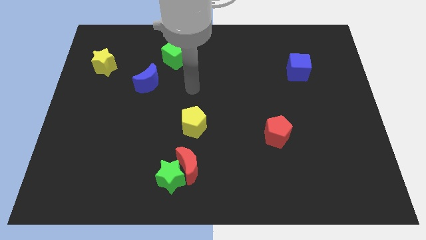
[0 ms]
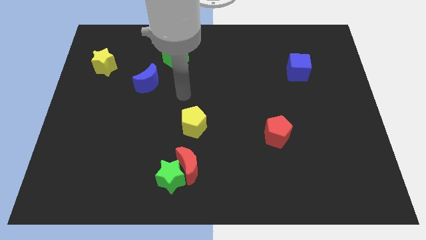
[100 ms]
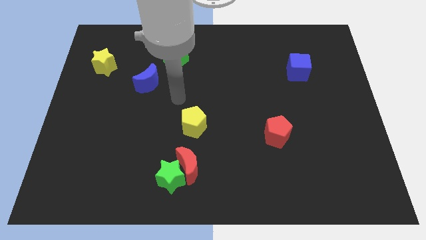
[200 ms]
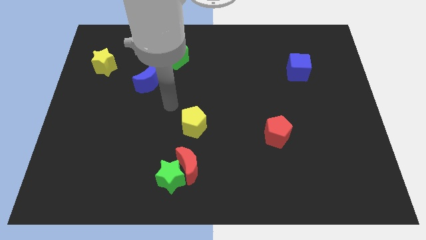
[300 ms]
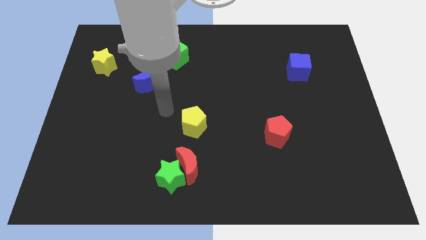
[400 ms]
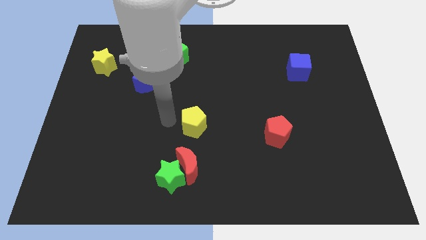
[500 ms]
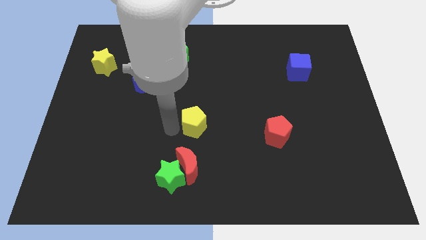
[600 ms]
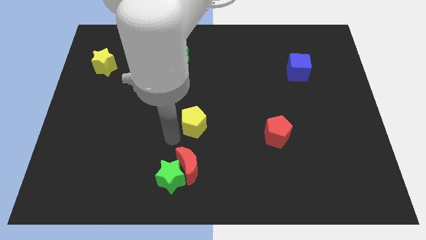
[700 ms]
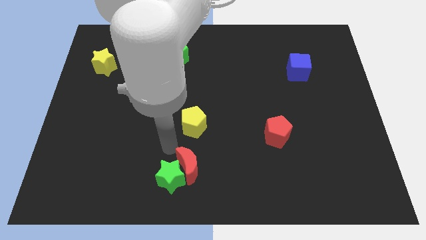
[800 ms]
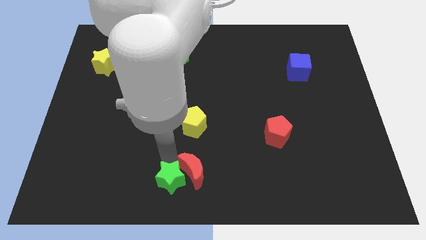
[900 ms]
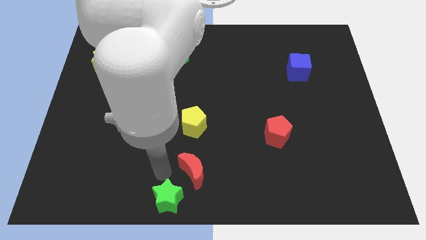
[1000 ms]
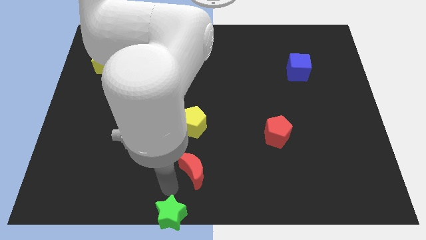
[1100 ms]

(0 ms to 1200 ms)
pull the red moon apart from the green star

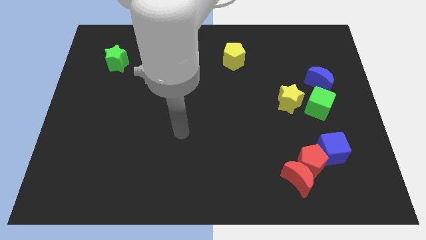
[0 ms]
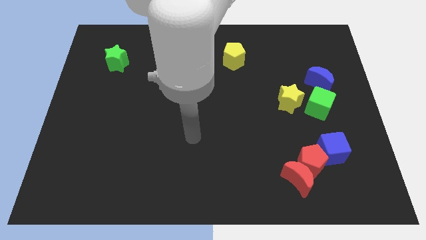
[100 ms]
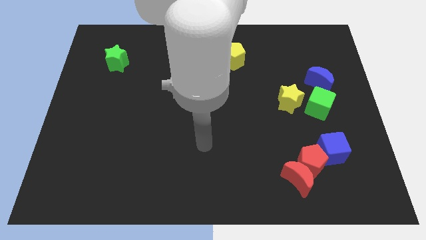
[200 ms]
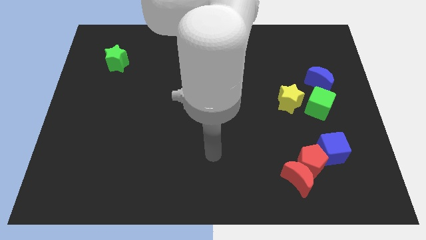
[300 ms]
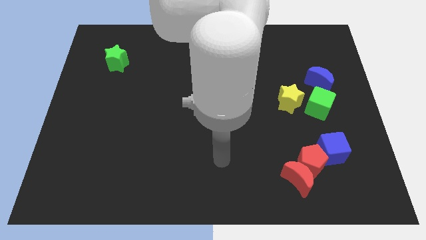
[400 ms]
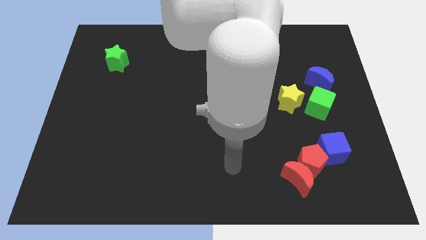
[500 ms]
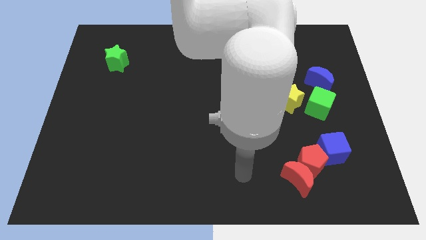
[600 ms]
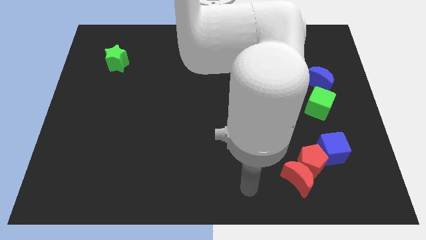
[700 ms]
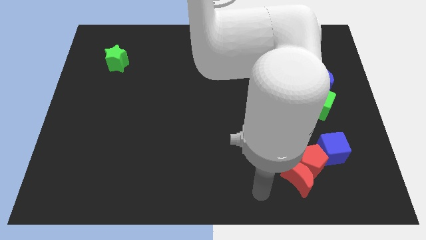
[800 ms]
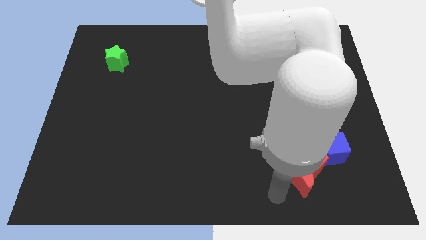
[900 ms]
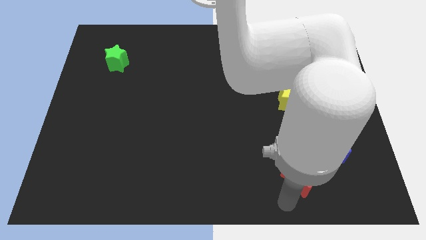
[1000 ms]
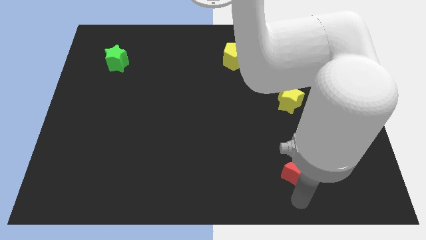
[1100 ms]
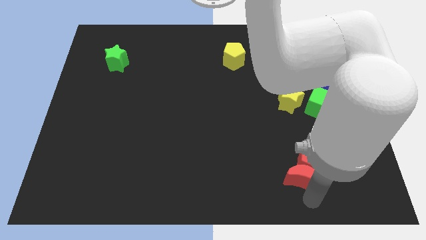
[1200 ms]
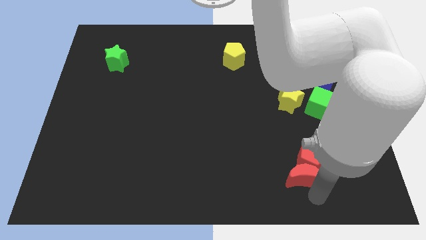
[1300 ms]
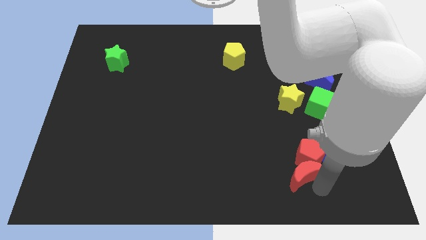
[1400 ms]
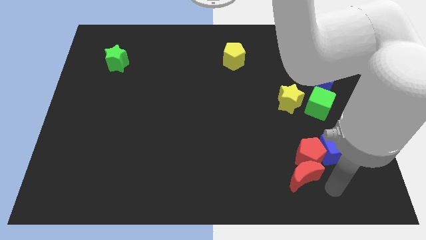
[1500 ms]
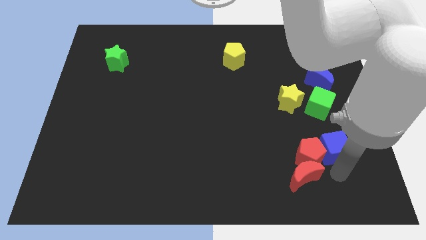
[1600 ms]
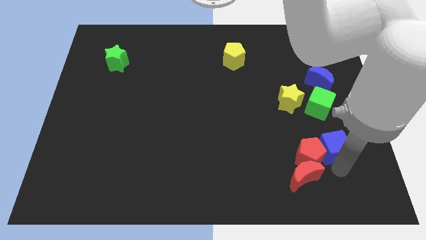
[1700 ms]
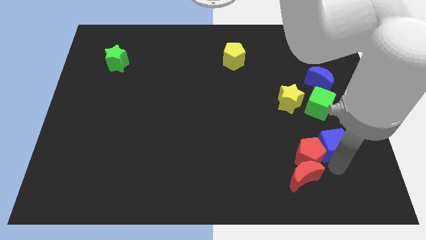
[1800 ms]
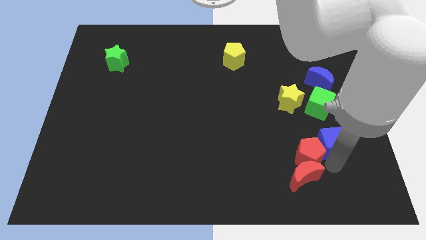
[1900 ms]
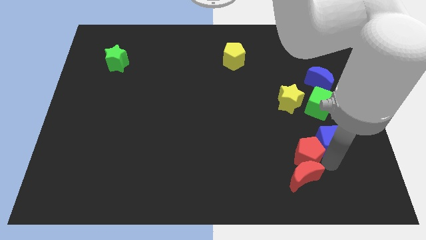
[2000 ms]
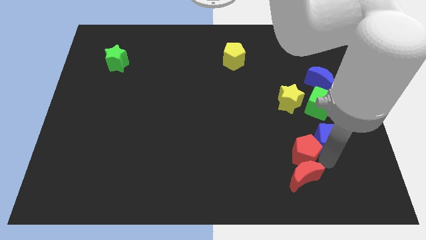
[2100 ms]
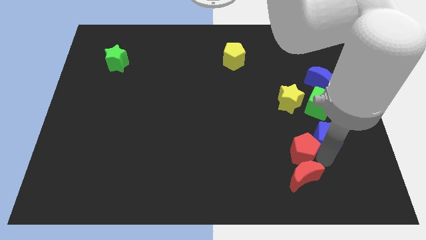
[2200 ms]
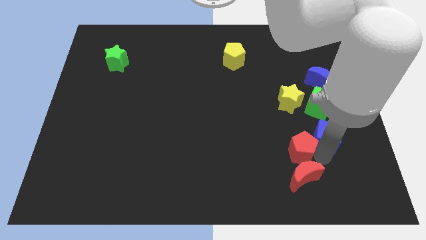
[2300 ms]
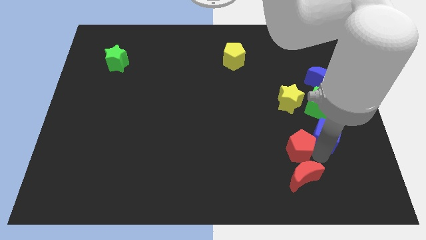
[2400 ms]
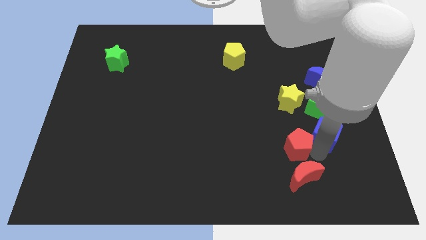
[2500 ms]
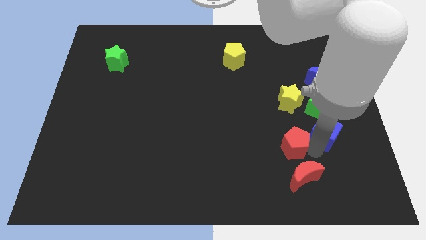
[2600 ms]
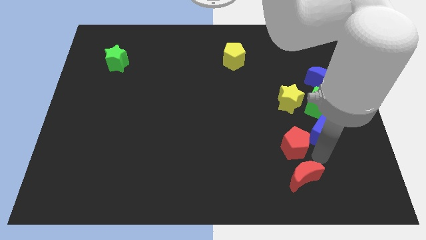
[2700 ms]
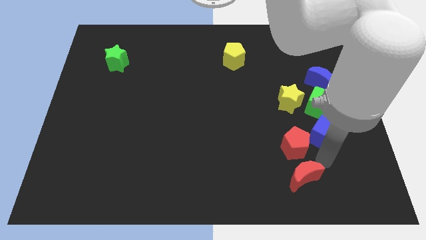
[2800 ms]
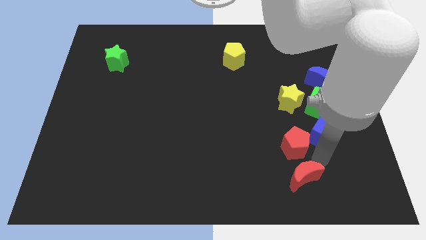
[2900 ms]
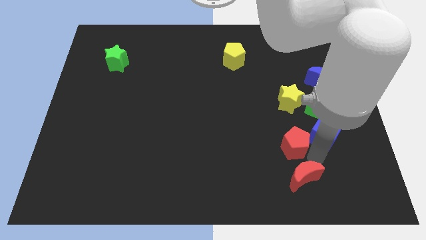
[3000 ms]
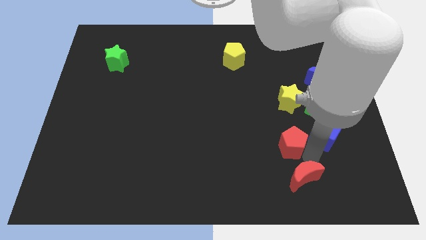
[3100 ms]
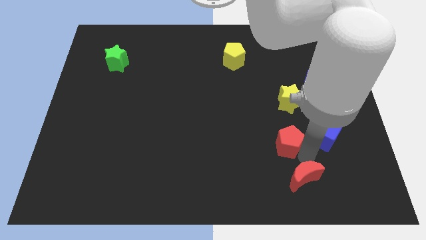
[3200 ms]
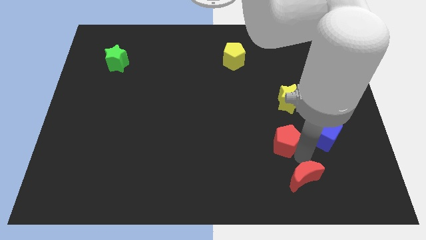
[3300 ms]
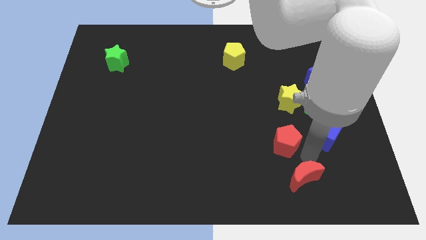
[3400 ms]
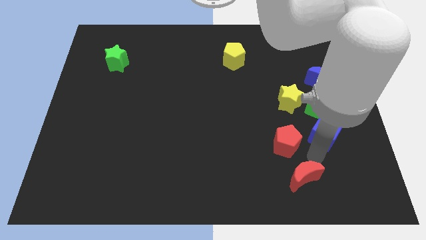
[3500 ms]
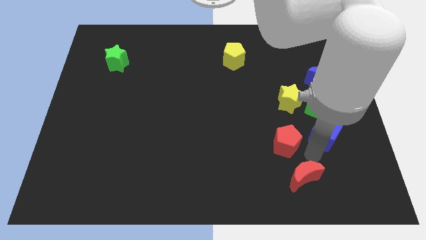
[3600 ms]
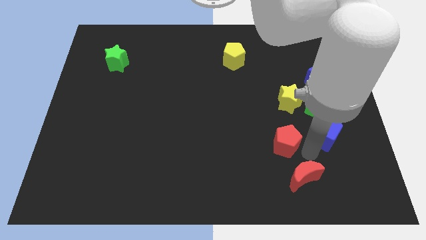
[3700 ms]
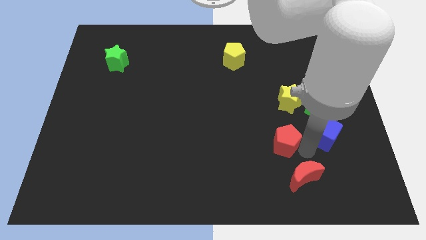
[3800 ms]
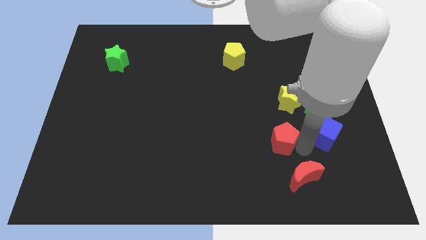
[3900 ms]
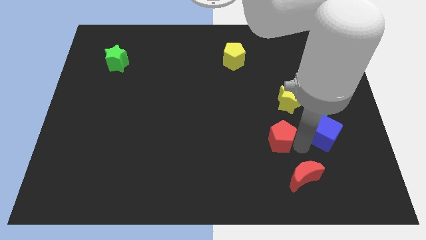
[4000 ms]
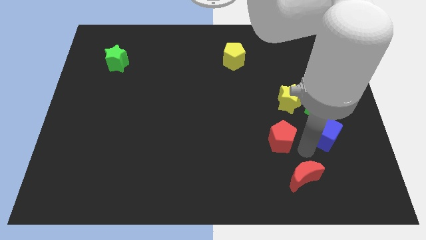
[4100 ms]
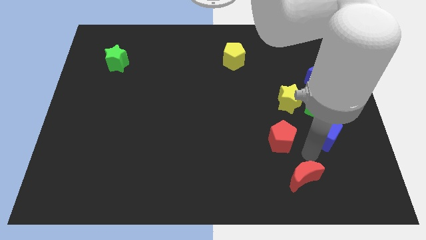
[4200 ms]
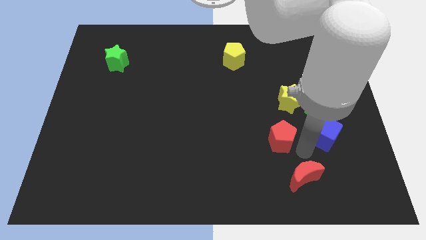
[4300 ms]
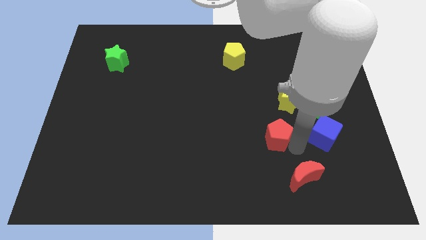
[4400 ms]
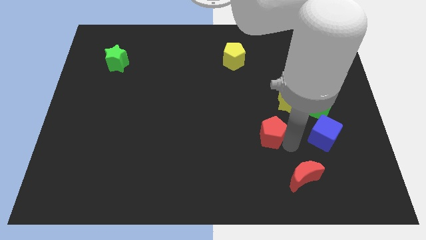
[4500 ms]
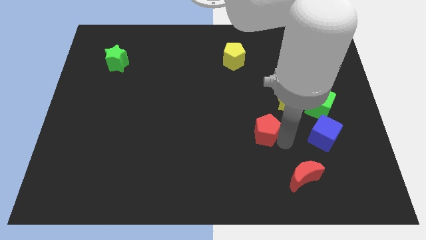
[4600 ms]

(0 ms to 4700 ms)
move the red pentagon away from the red moon and blue cube

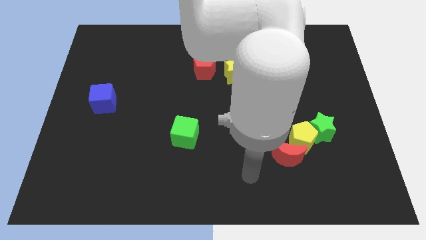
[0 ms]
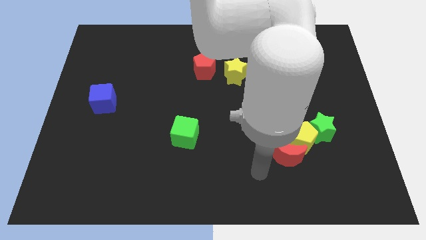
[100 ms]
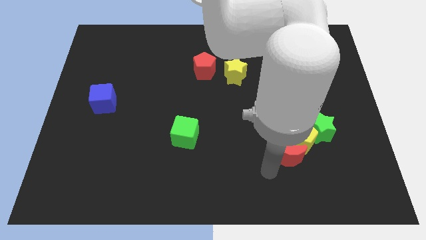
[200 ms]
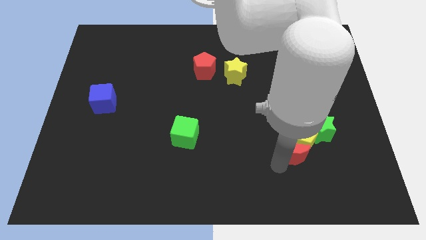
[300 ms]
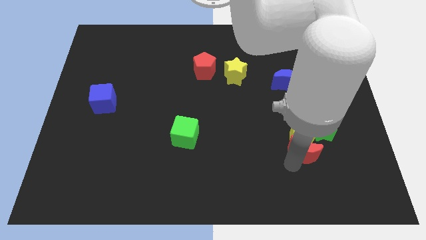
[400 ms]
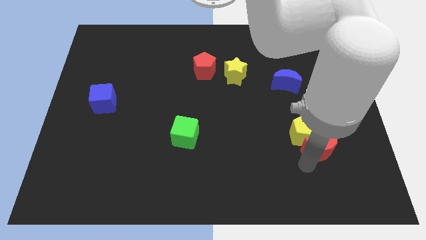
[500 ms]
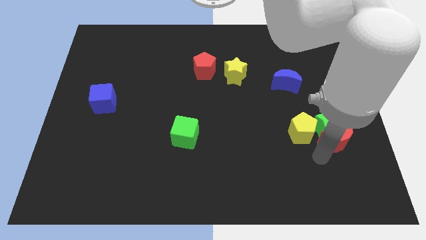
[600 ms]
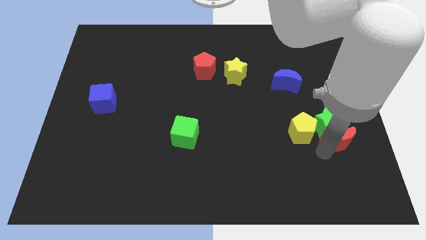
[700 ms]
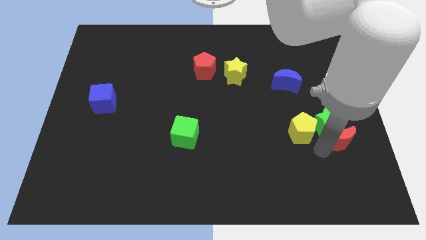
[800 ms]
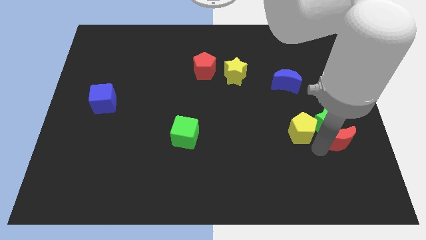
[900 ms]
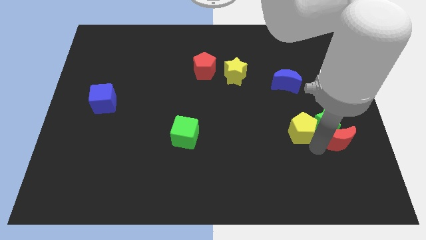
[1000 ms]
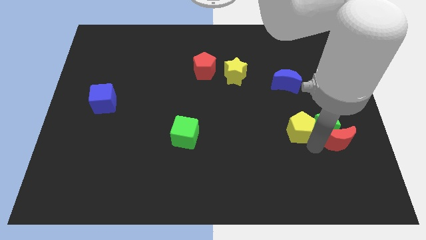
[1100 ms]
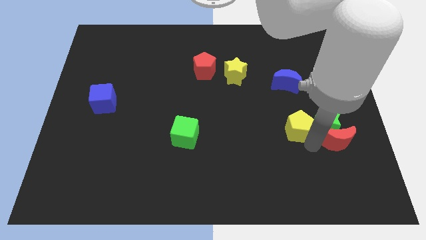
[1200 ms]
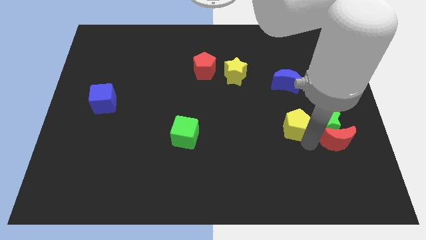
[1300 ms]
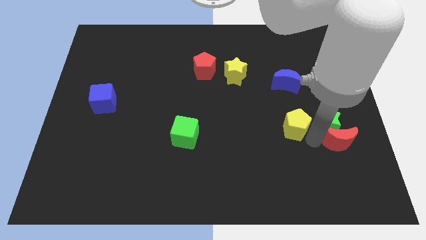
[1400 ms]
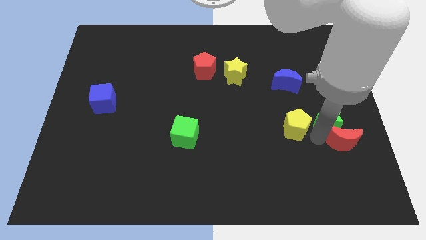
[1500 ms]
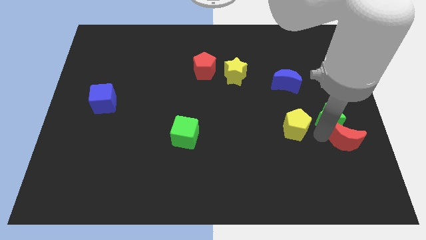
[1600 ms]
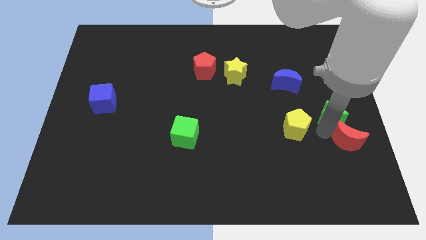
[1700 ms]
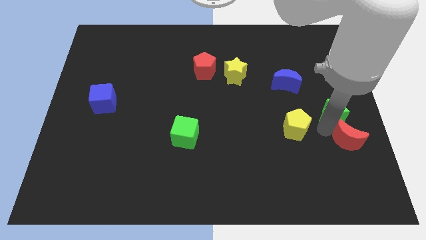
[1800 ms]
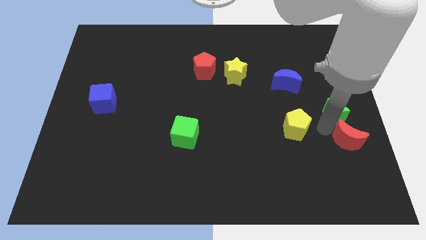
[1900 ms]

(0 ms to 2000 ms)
move the yellow pentagon away from the green star and red moon

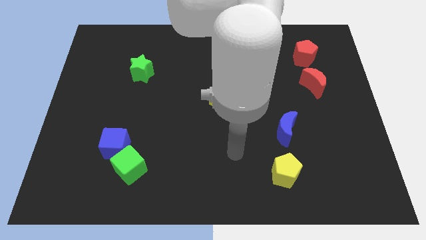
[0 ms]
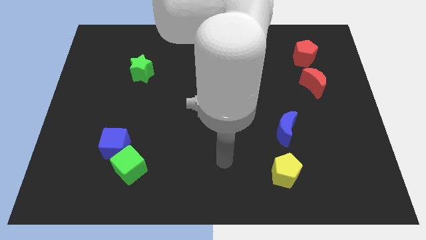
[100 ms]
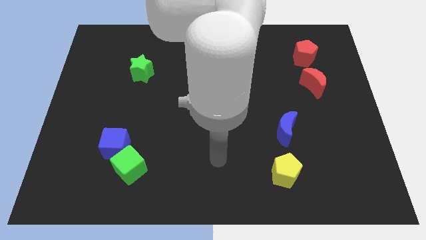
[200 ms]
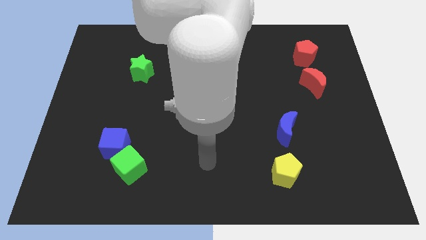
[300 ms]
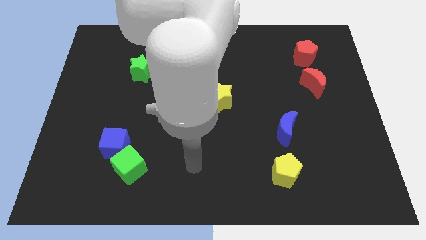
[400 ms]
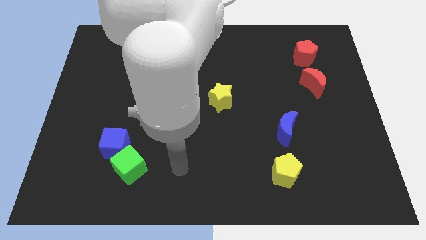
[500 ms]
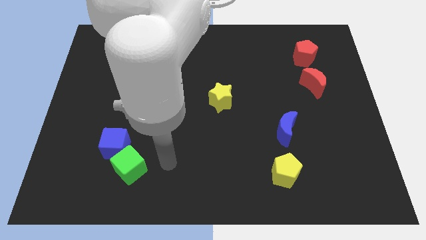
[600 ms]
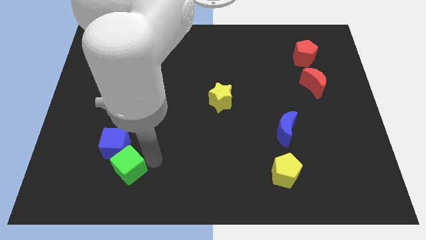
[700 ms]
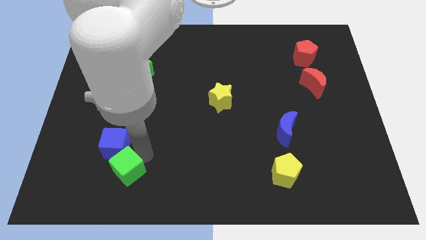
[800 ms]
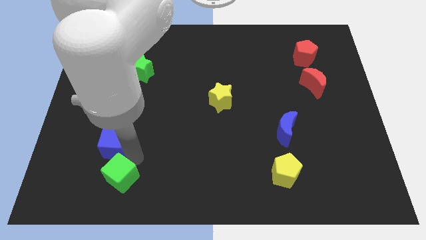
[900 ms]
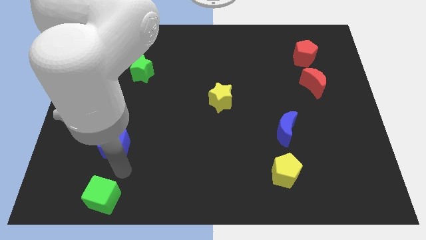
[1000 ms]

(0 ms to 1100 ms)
move the blue cube away from the green cube

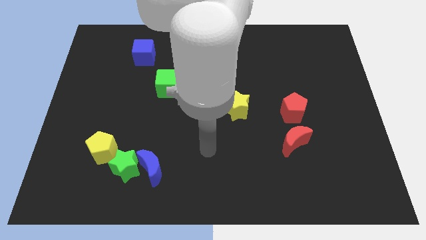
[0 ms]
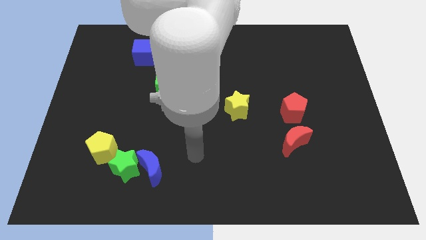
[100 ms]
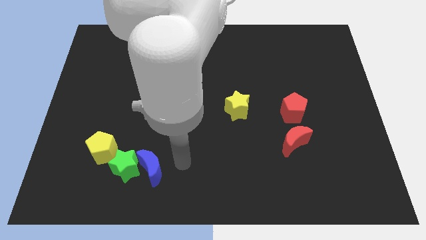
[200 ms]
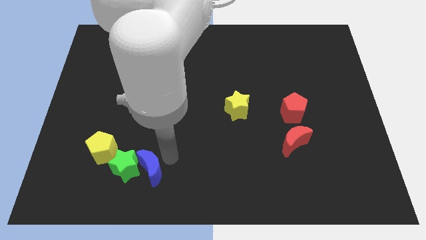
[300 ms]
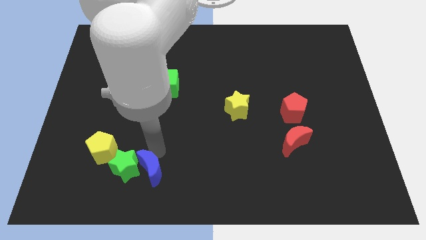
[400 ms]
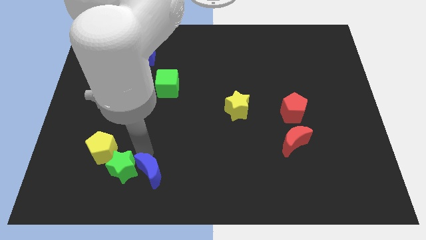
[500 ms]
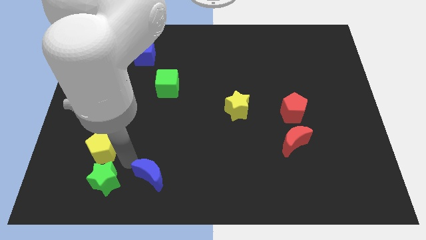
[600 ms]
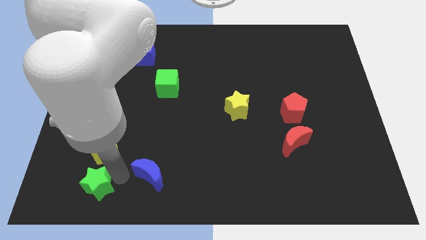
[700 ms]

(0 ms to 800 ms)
move the blue moon away from the green star
